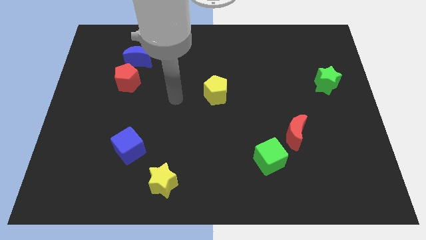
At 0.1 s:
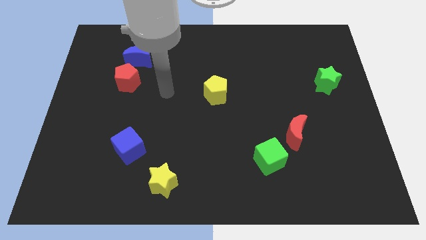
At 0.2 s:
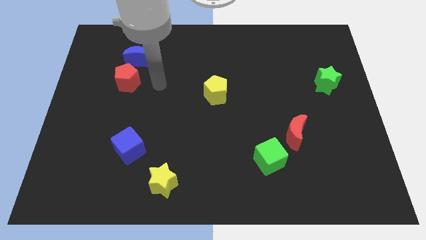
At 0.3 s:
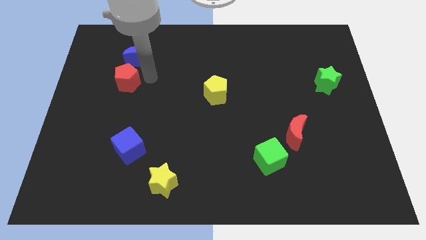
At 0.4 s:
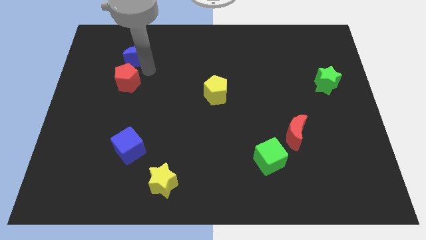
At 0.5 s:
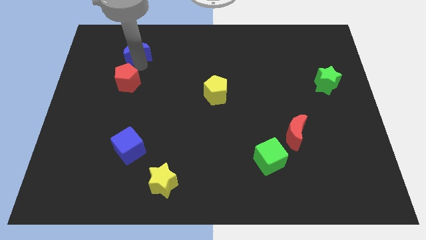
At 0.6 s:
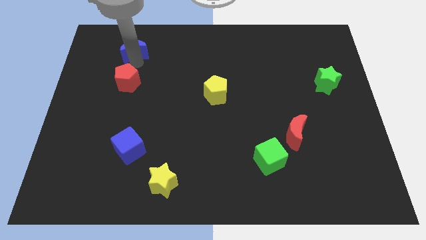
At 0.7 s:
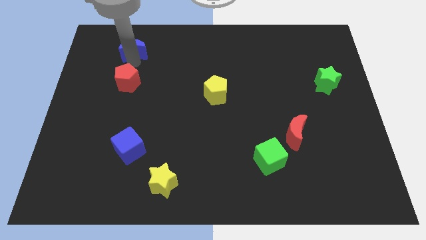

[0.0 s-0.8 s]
move the red pentagon away from the blue moon

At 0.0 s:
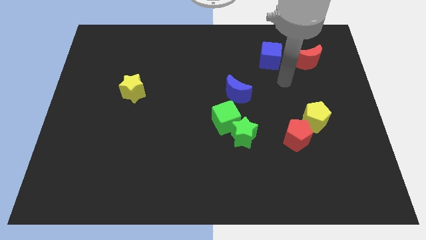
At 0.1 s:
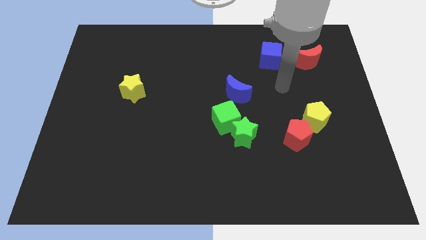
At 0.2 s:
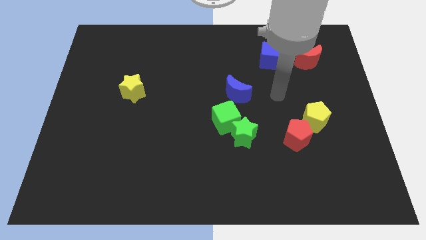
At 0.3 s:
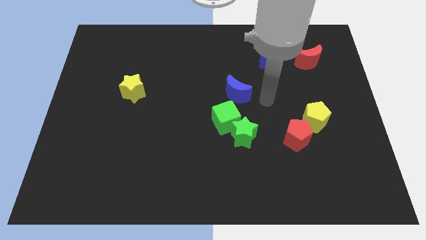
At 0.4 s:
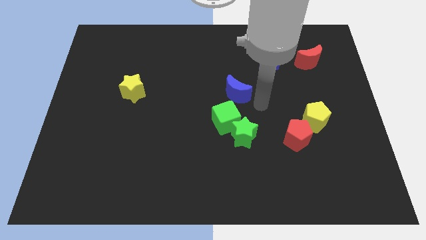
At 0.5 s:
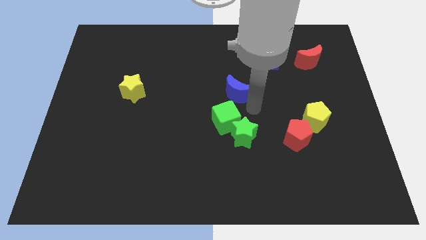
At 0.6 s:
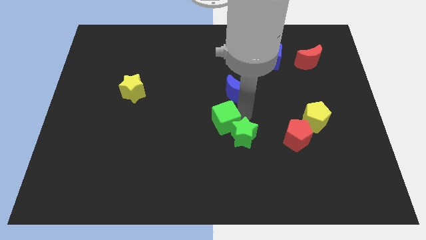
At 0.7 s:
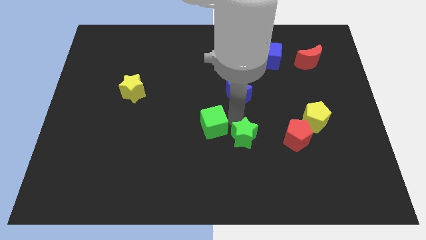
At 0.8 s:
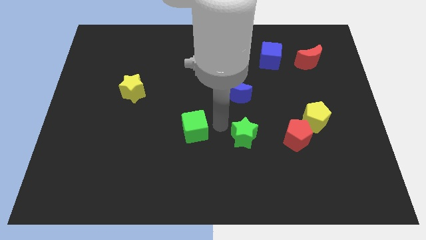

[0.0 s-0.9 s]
separate the green star from the green cube

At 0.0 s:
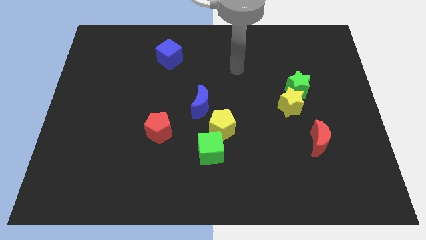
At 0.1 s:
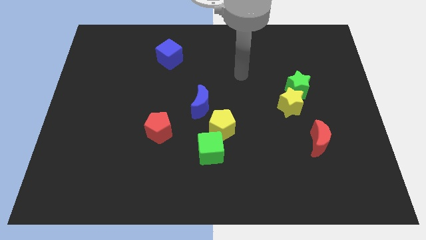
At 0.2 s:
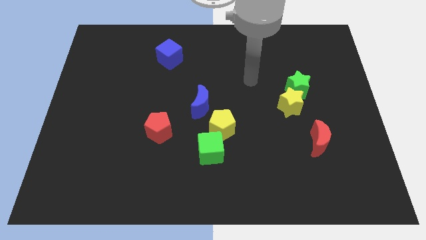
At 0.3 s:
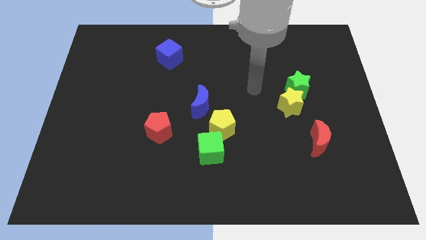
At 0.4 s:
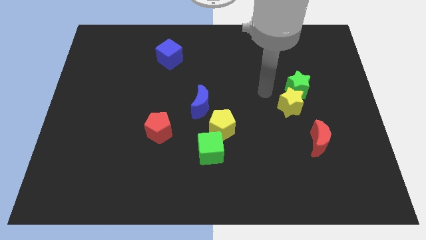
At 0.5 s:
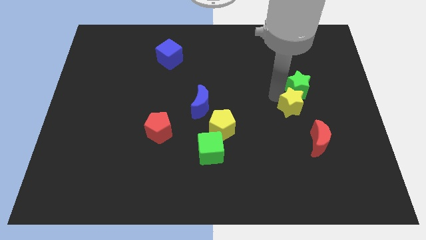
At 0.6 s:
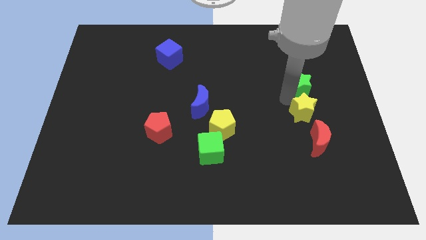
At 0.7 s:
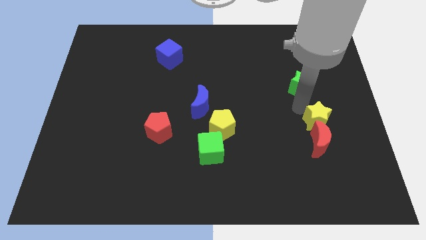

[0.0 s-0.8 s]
move the green star away from the yellow star

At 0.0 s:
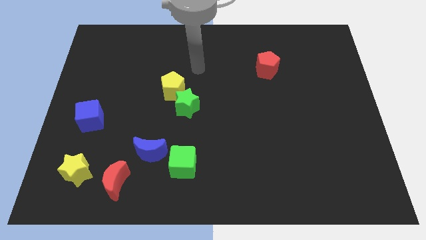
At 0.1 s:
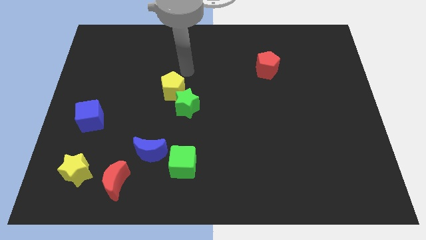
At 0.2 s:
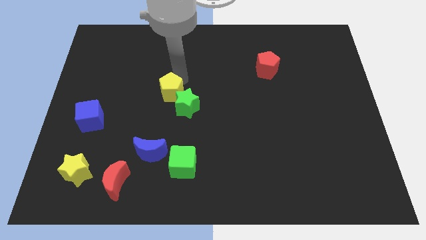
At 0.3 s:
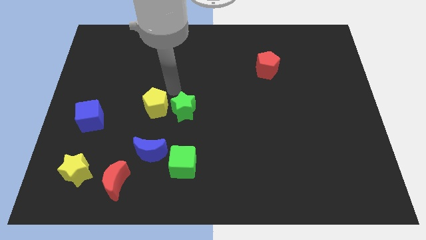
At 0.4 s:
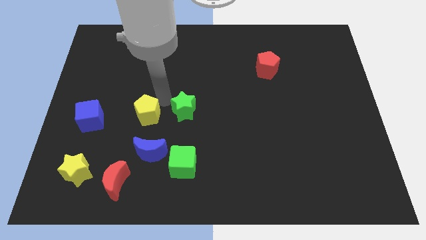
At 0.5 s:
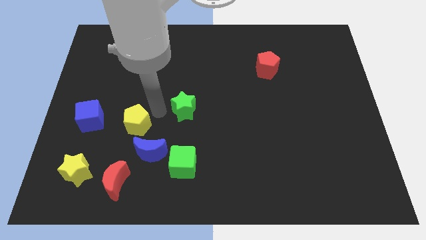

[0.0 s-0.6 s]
separate the green star from the yellow pentagon

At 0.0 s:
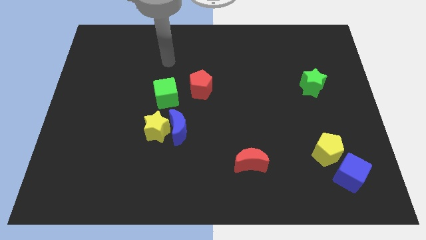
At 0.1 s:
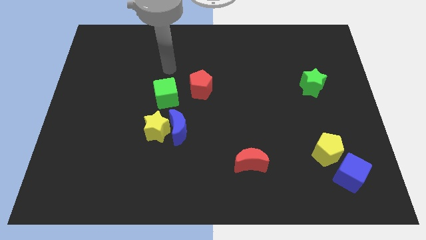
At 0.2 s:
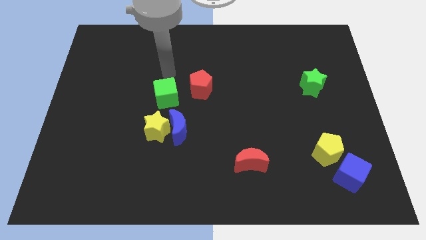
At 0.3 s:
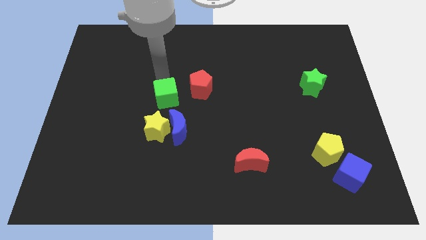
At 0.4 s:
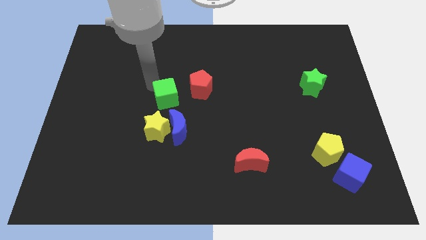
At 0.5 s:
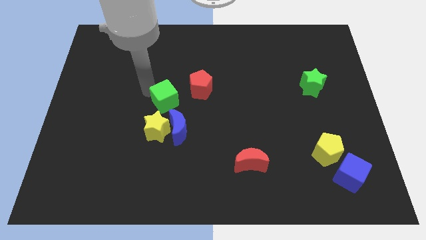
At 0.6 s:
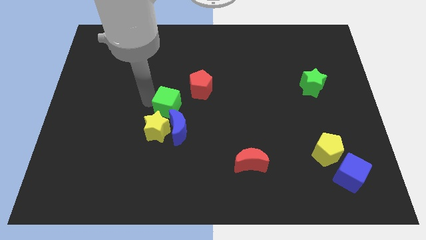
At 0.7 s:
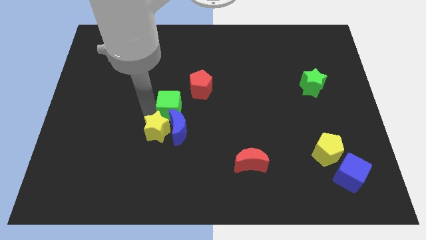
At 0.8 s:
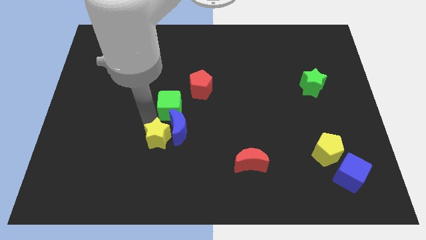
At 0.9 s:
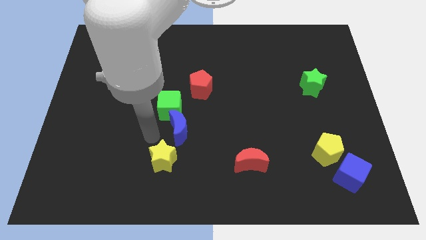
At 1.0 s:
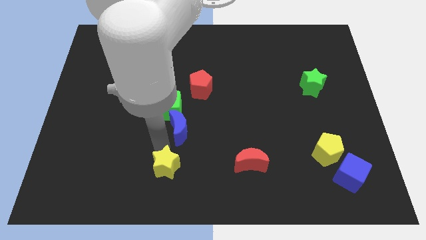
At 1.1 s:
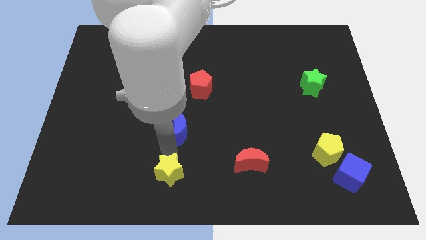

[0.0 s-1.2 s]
move the blue moon away from the yellow star

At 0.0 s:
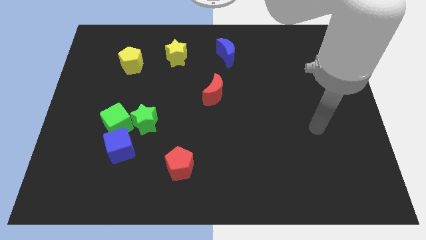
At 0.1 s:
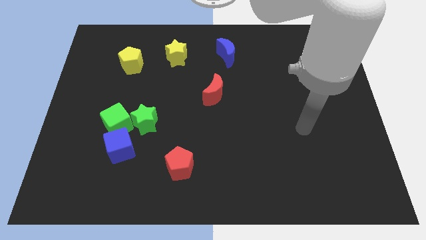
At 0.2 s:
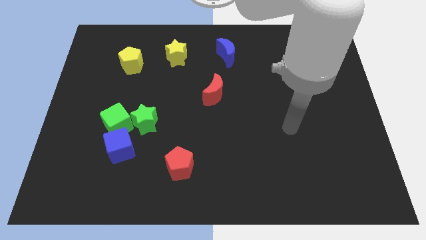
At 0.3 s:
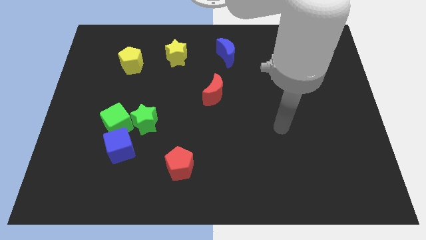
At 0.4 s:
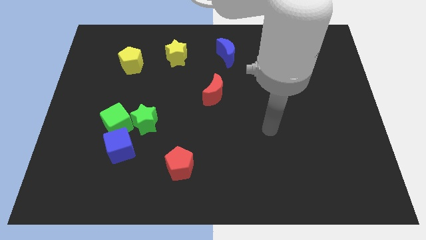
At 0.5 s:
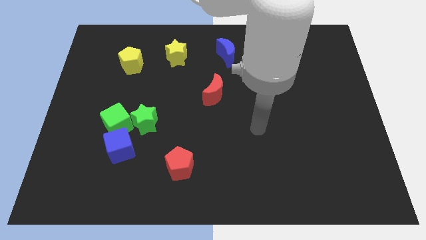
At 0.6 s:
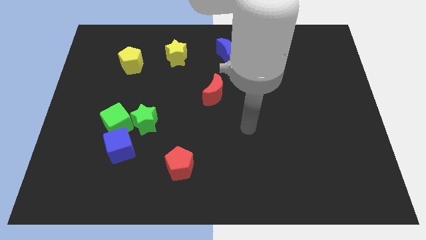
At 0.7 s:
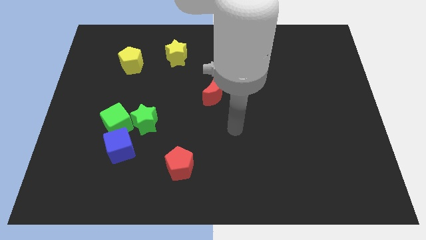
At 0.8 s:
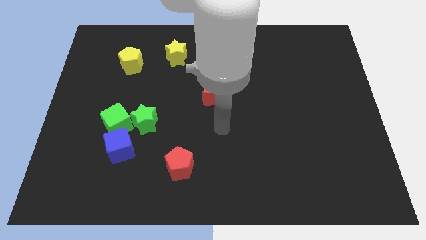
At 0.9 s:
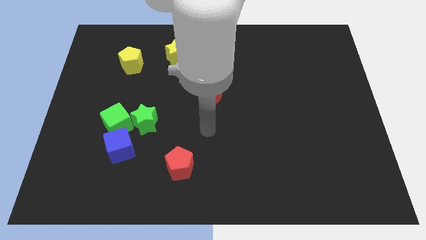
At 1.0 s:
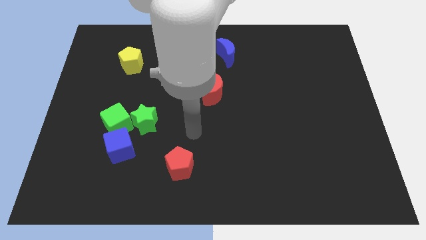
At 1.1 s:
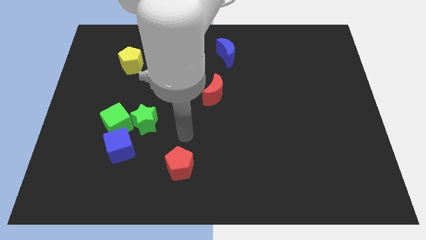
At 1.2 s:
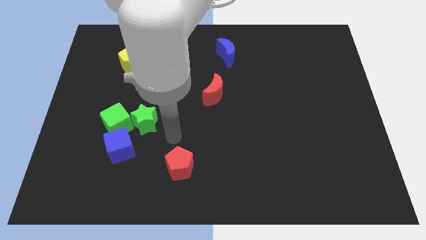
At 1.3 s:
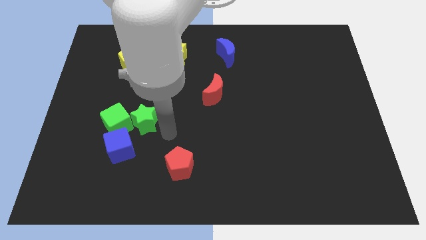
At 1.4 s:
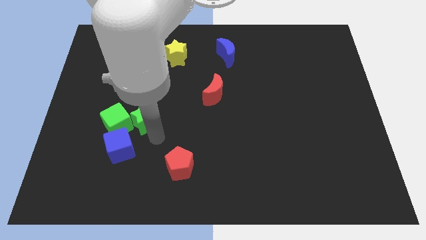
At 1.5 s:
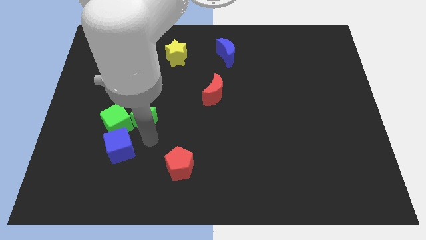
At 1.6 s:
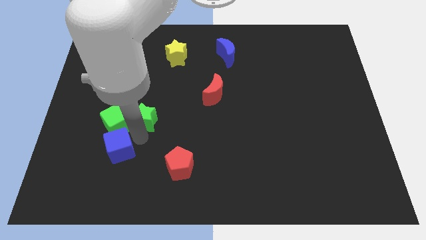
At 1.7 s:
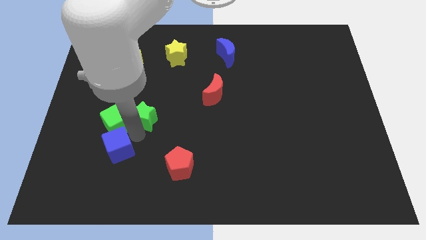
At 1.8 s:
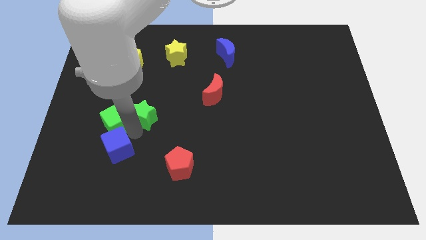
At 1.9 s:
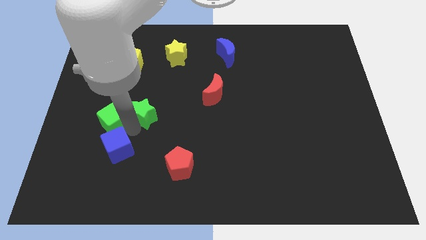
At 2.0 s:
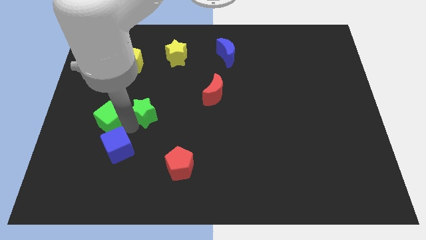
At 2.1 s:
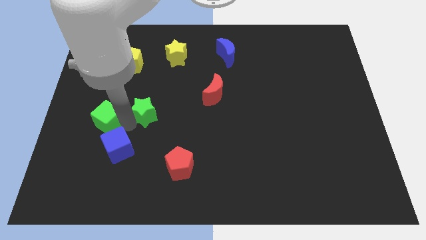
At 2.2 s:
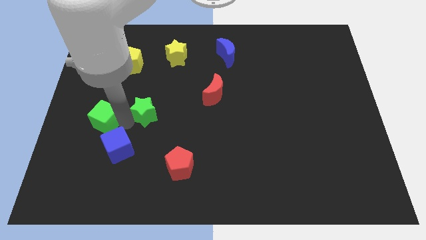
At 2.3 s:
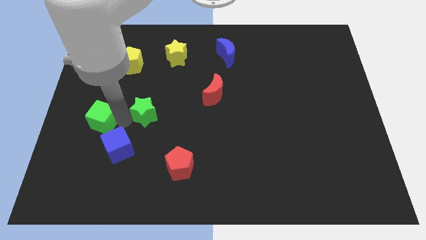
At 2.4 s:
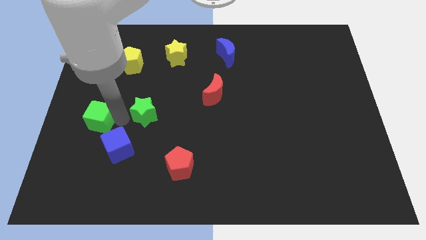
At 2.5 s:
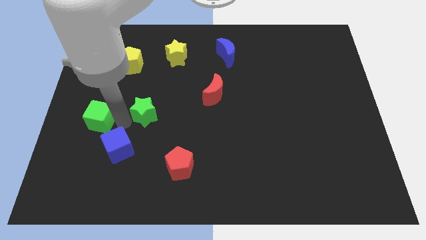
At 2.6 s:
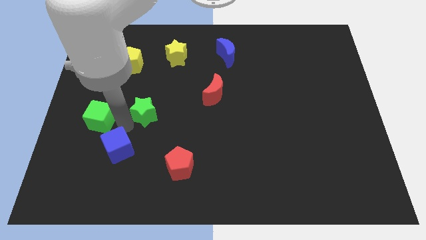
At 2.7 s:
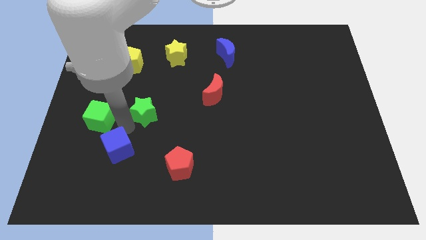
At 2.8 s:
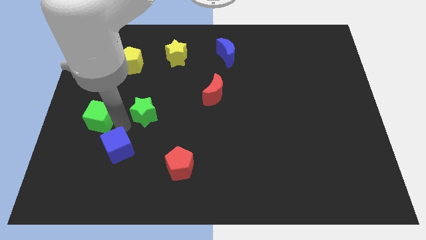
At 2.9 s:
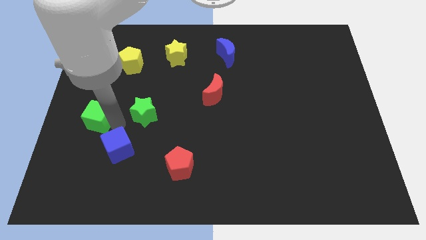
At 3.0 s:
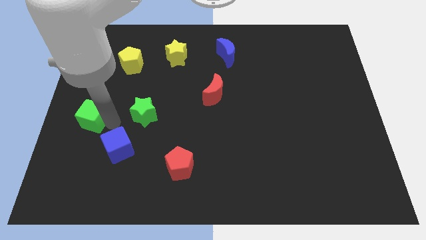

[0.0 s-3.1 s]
pull the green cube apart from the green star and blue cube

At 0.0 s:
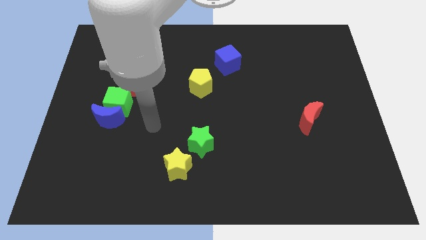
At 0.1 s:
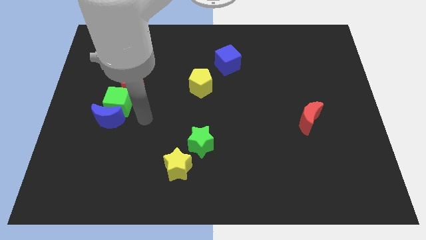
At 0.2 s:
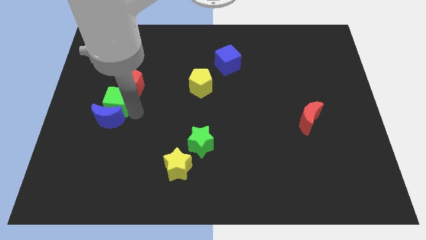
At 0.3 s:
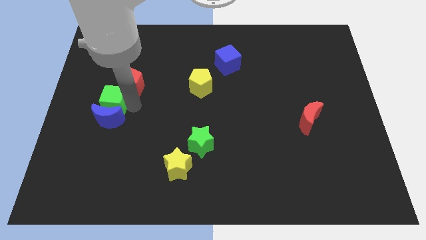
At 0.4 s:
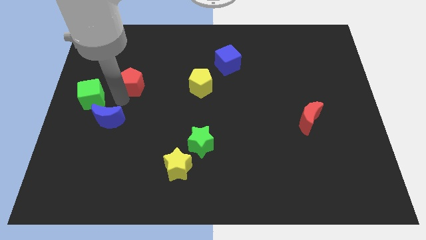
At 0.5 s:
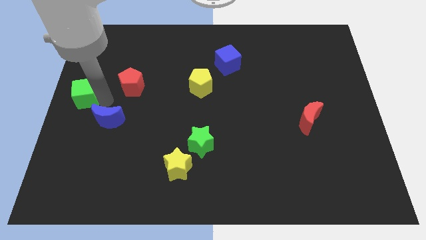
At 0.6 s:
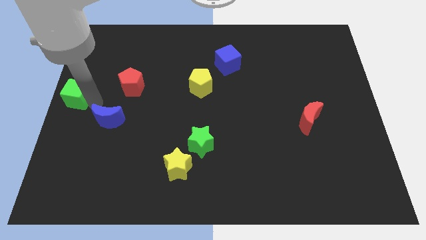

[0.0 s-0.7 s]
separate the blue moon from the green cube

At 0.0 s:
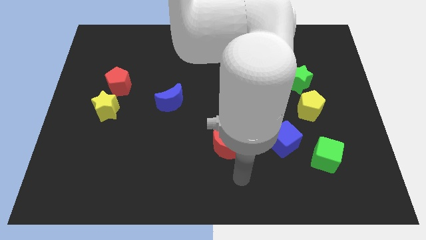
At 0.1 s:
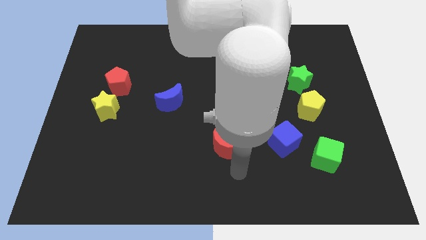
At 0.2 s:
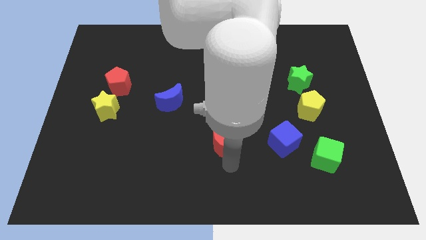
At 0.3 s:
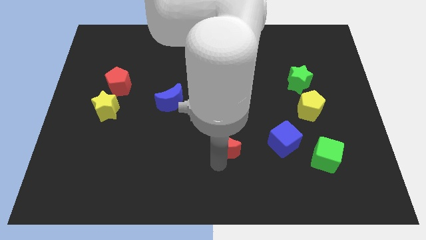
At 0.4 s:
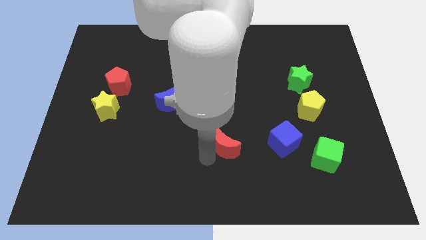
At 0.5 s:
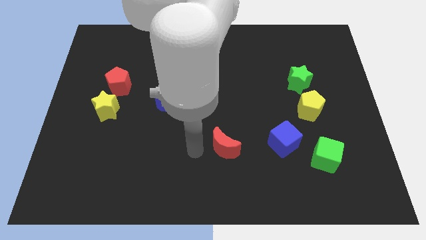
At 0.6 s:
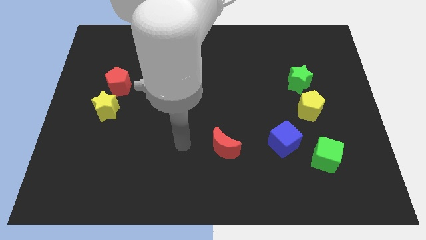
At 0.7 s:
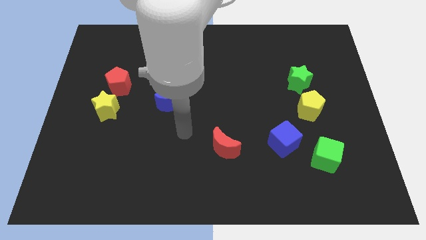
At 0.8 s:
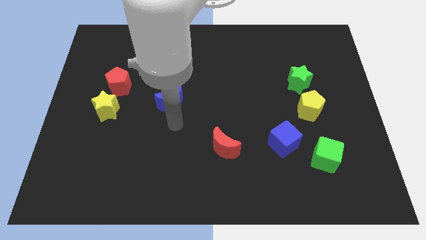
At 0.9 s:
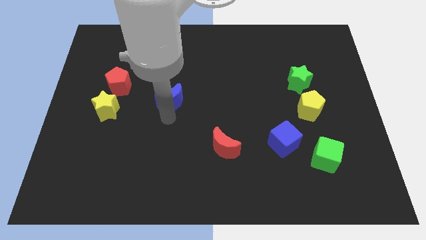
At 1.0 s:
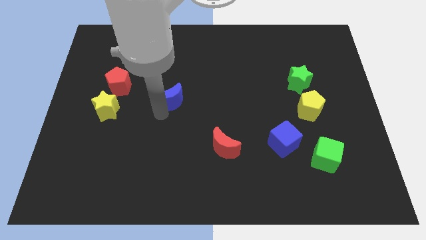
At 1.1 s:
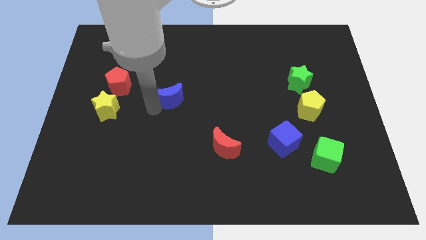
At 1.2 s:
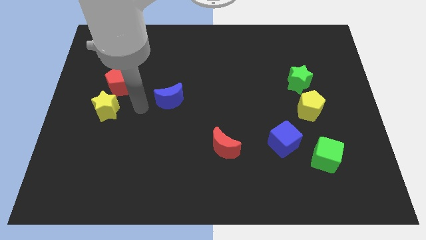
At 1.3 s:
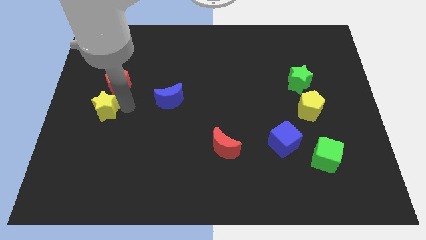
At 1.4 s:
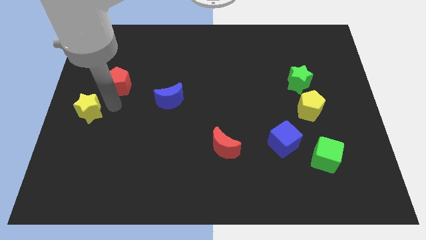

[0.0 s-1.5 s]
move the red pentagon away from the yellow star
